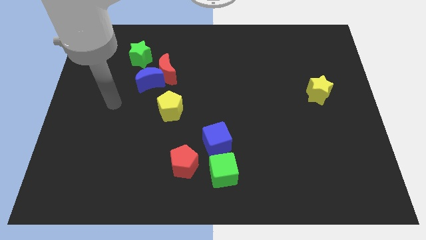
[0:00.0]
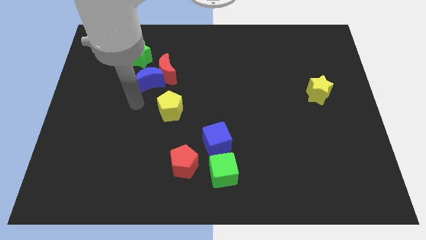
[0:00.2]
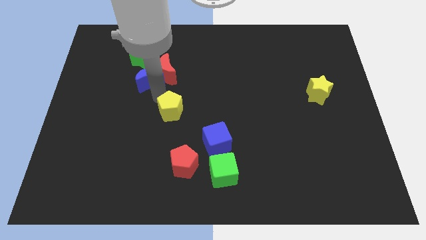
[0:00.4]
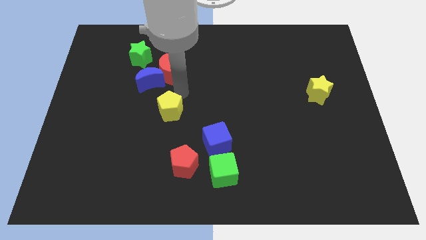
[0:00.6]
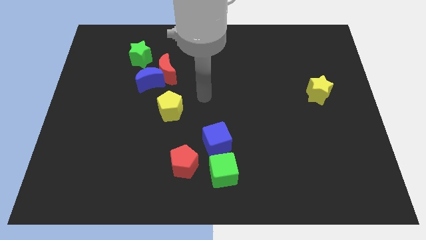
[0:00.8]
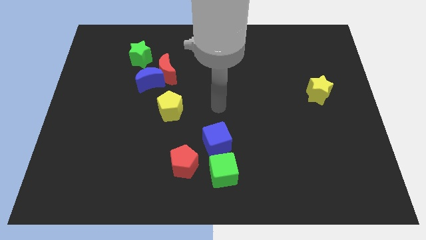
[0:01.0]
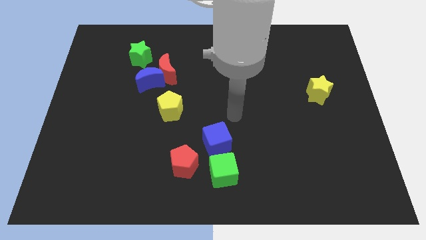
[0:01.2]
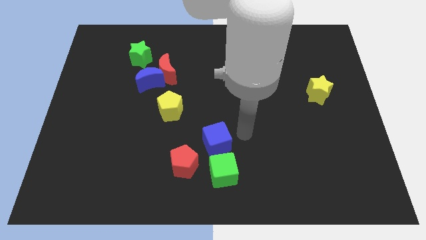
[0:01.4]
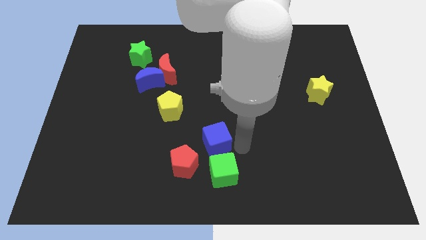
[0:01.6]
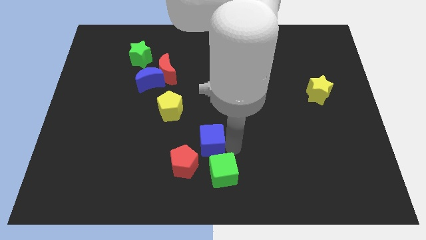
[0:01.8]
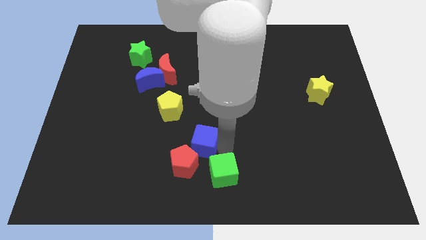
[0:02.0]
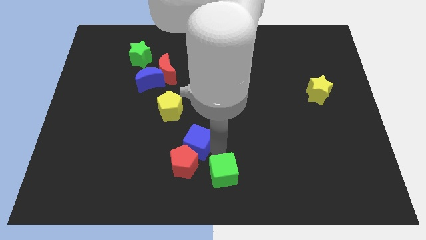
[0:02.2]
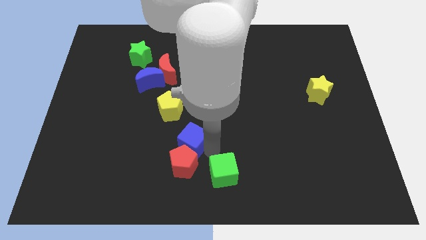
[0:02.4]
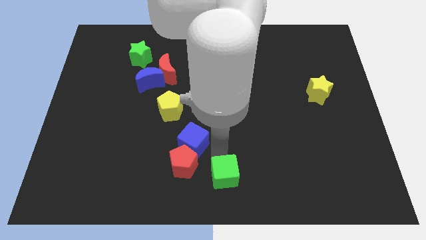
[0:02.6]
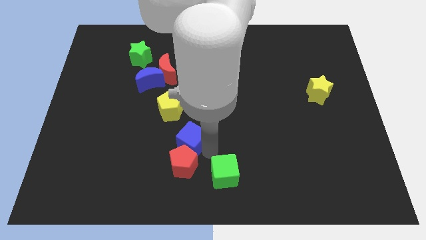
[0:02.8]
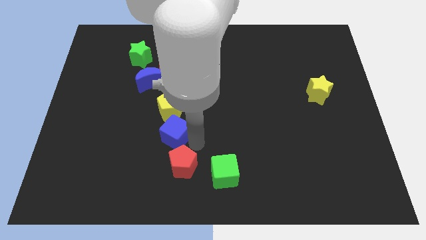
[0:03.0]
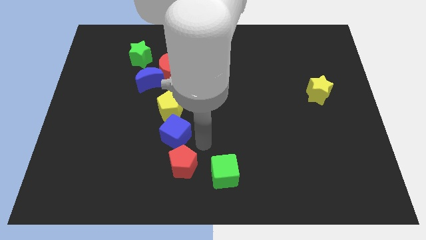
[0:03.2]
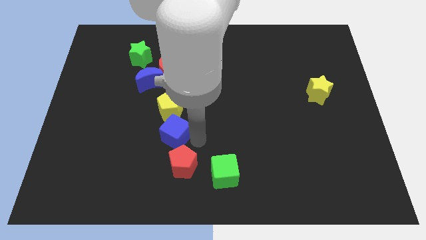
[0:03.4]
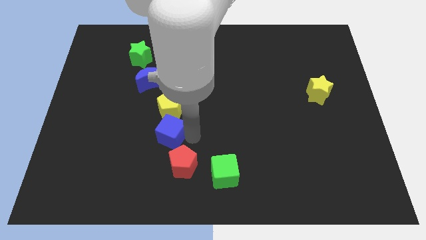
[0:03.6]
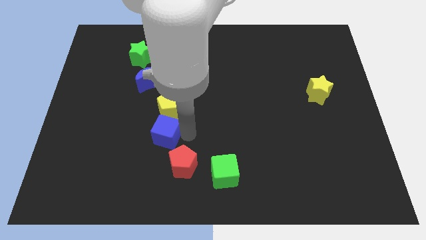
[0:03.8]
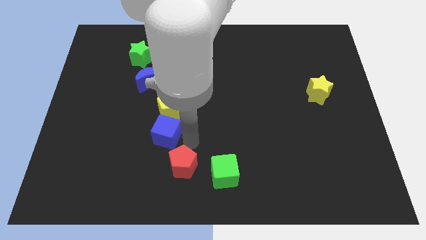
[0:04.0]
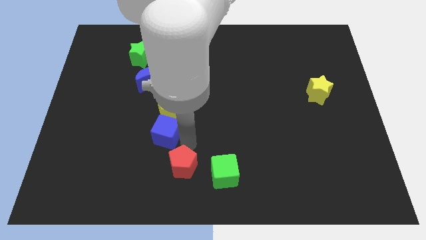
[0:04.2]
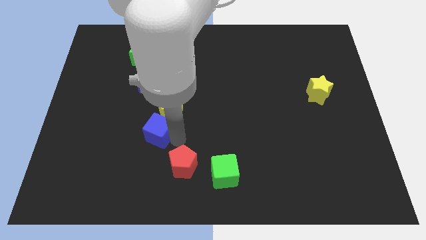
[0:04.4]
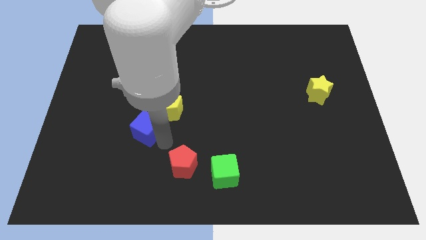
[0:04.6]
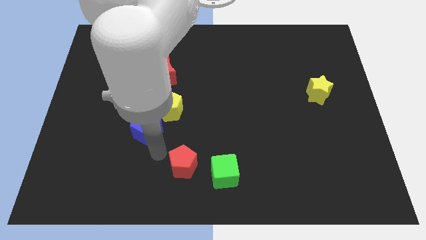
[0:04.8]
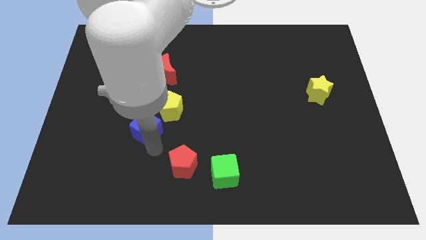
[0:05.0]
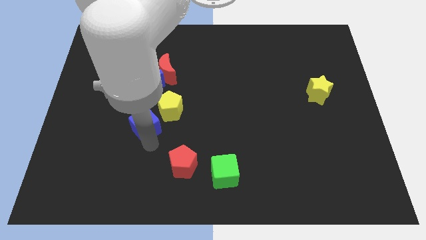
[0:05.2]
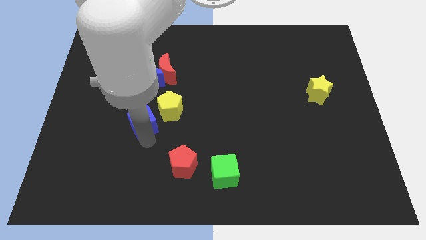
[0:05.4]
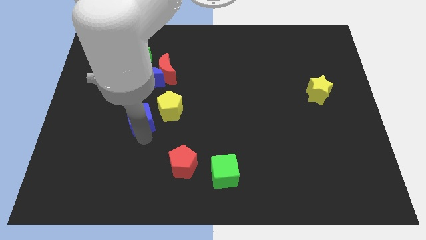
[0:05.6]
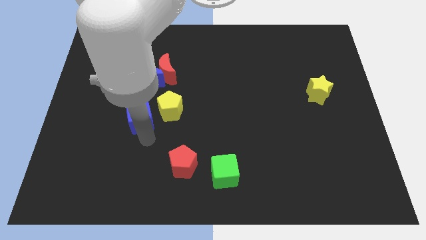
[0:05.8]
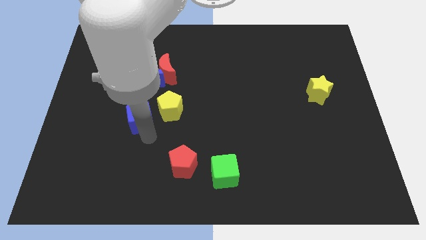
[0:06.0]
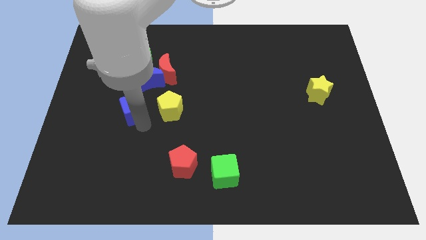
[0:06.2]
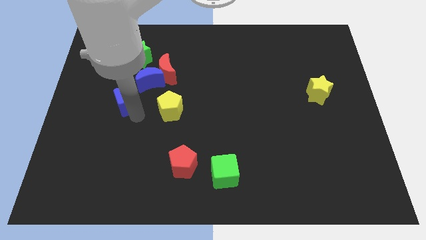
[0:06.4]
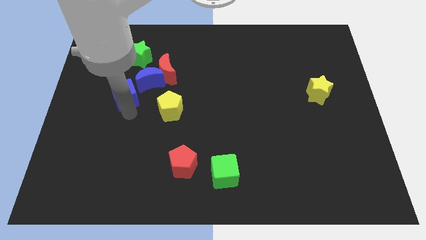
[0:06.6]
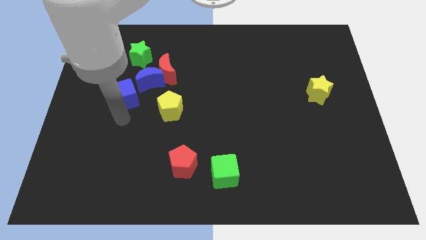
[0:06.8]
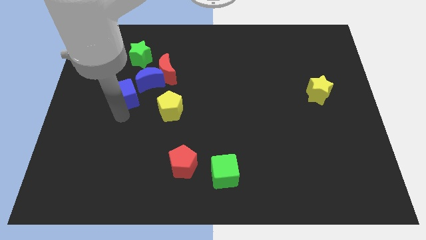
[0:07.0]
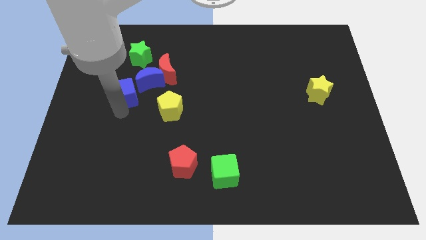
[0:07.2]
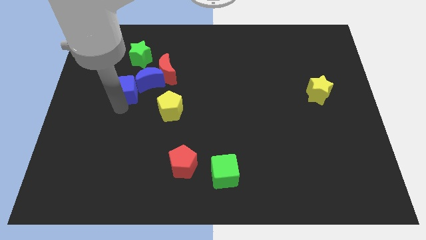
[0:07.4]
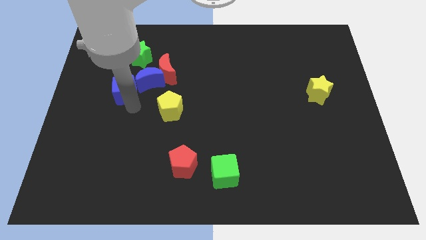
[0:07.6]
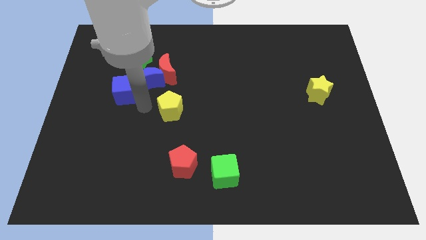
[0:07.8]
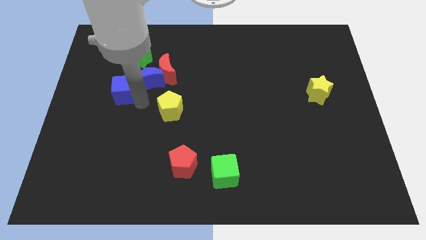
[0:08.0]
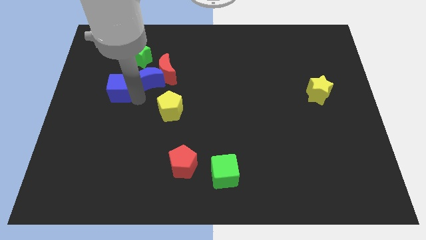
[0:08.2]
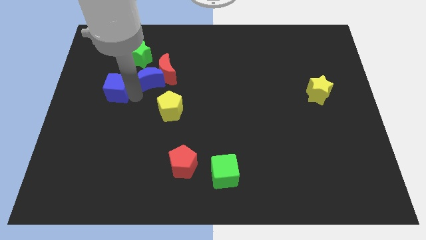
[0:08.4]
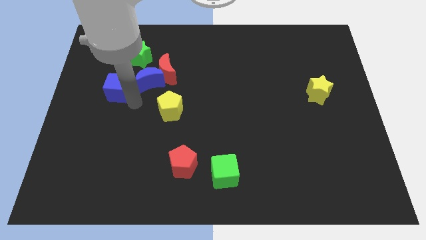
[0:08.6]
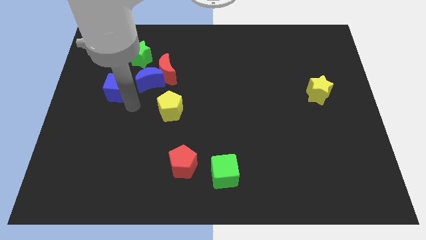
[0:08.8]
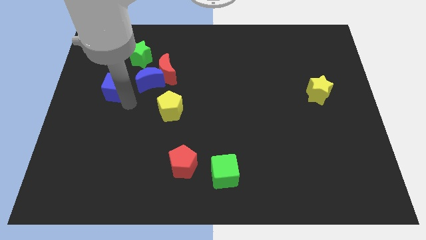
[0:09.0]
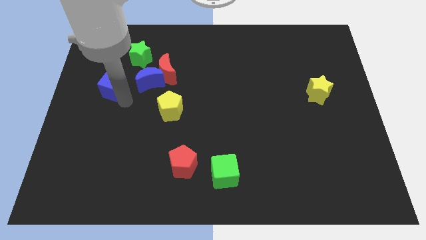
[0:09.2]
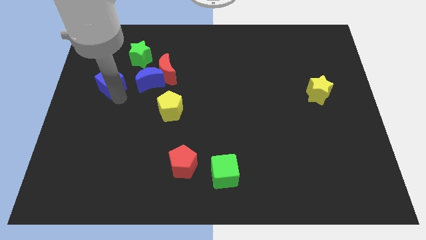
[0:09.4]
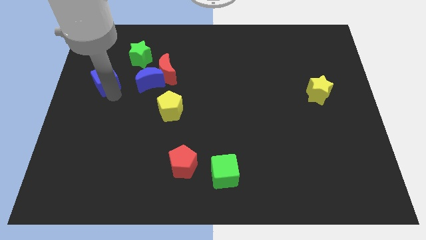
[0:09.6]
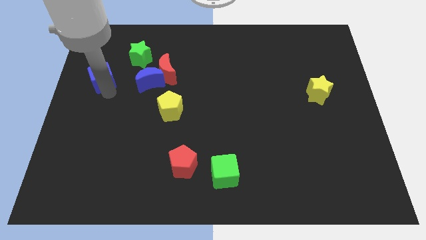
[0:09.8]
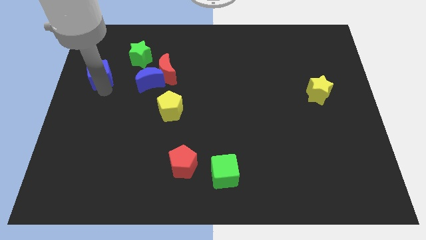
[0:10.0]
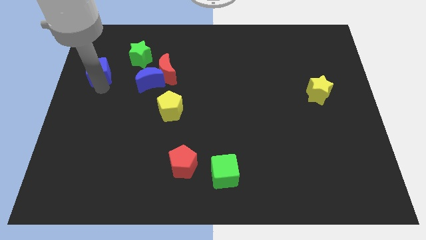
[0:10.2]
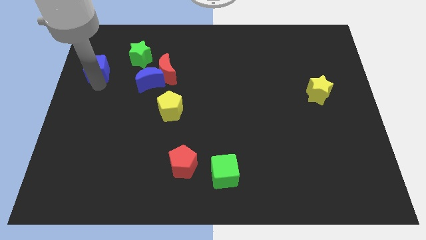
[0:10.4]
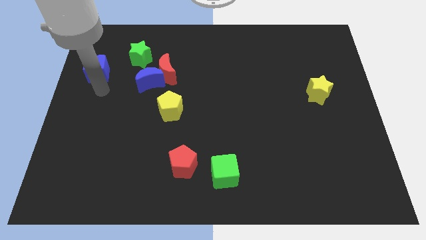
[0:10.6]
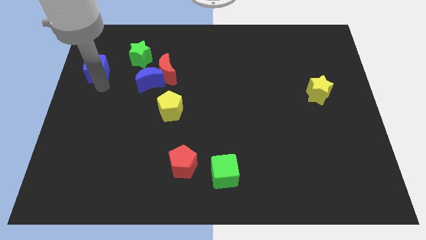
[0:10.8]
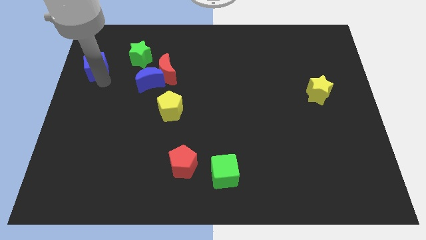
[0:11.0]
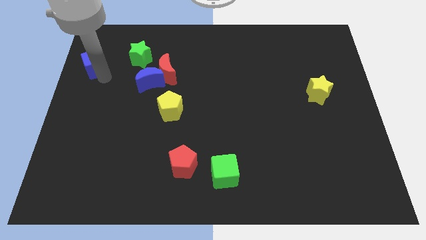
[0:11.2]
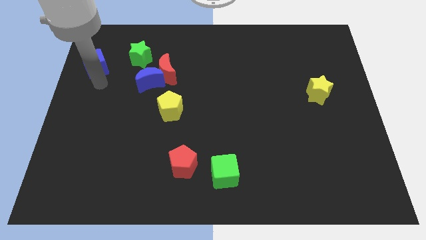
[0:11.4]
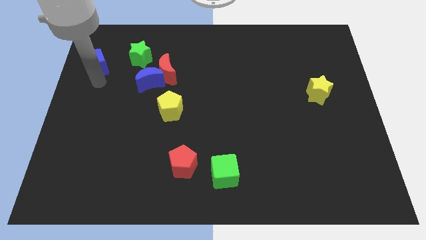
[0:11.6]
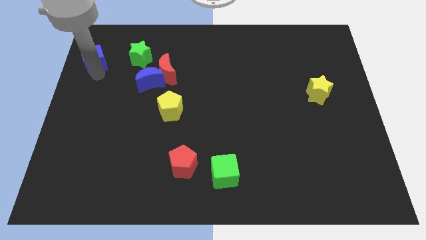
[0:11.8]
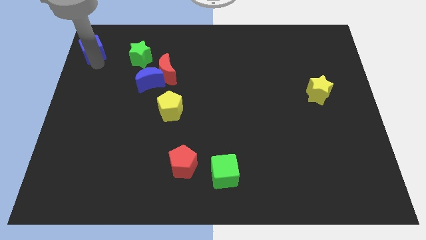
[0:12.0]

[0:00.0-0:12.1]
push the blue cube to the top left

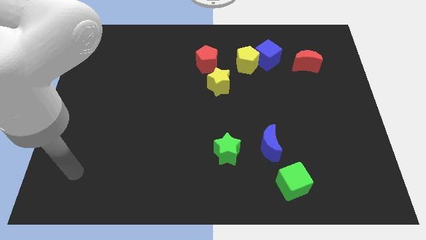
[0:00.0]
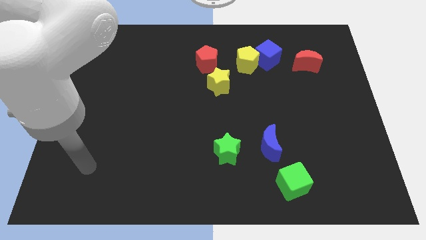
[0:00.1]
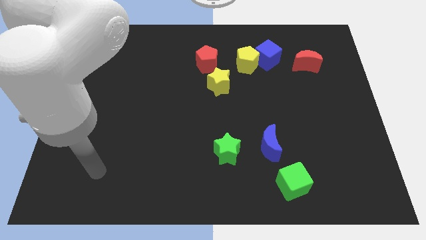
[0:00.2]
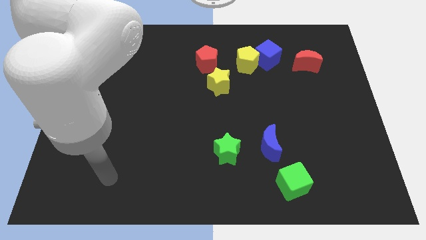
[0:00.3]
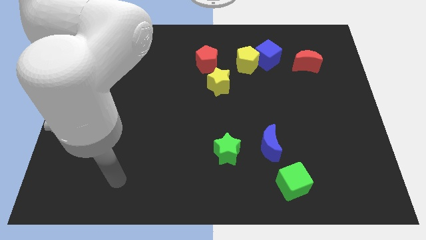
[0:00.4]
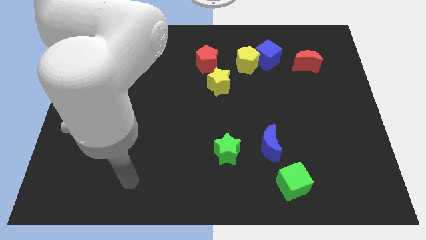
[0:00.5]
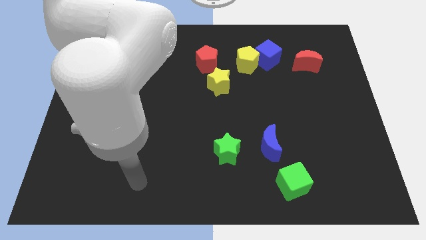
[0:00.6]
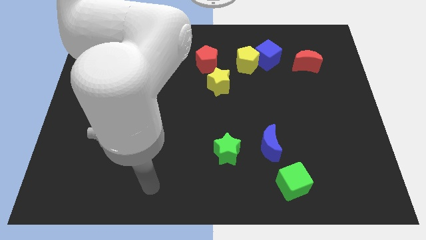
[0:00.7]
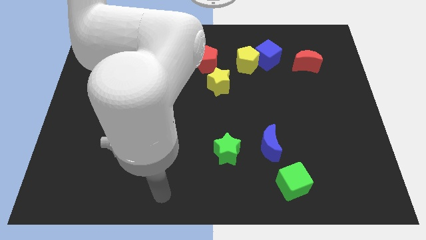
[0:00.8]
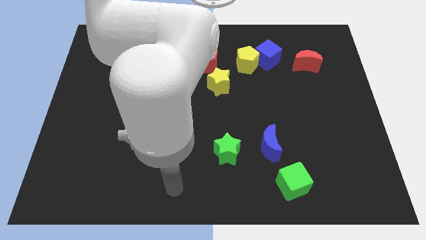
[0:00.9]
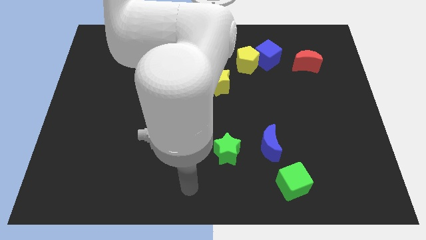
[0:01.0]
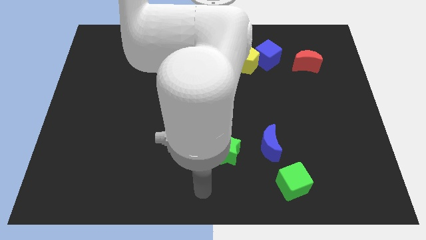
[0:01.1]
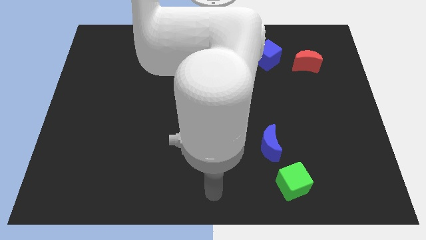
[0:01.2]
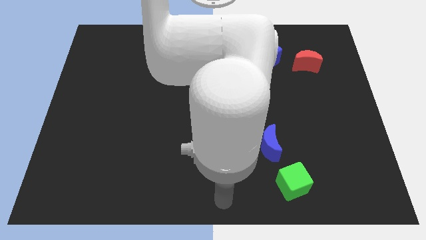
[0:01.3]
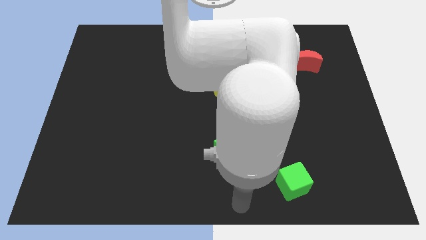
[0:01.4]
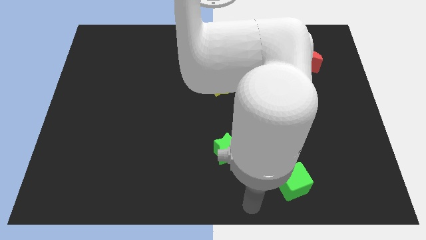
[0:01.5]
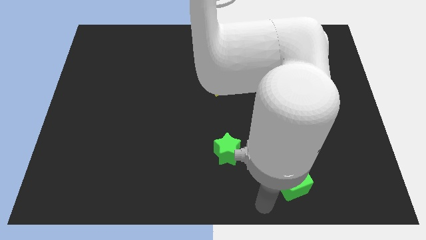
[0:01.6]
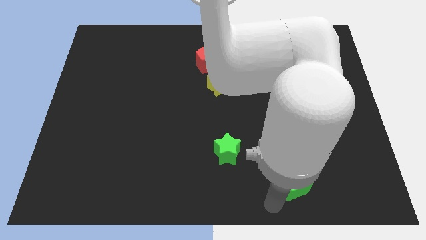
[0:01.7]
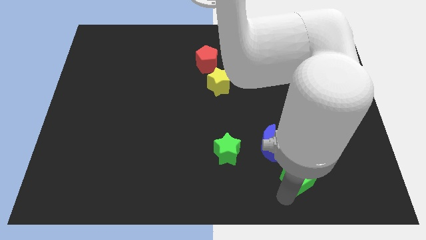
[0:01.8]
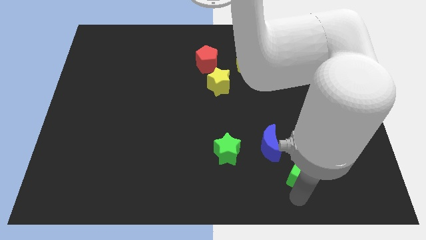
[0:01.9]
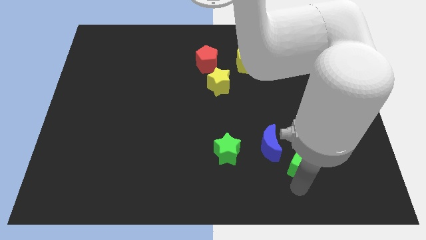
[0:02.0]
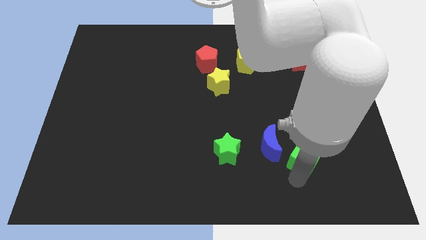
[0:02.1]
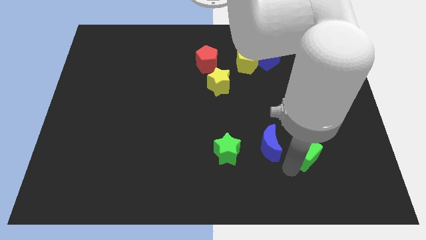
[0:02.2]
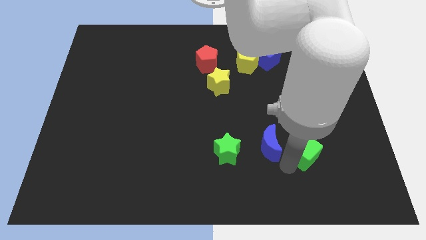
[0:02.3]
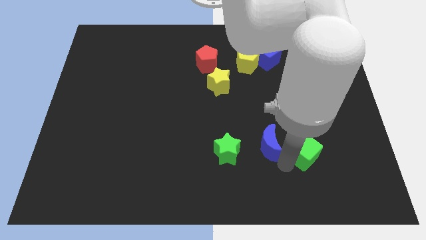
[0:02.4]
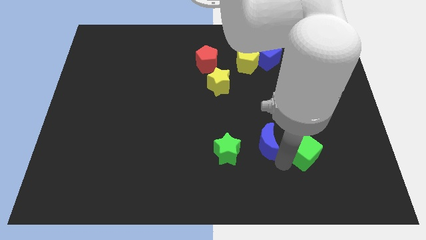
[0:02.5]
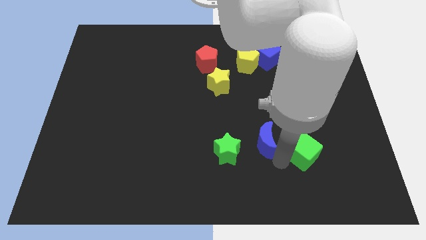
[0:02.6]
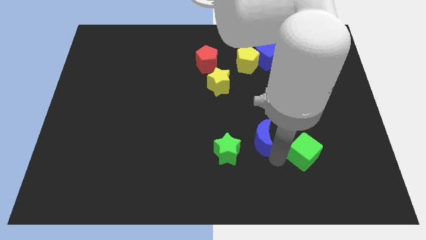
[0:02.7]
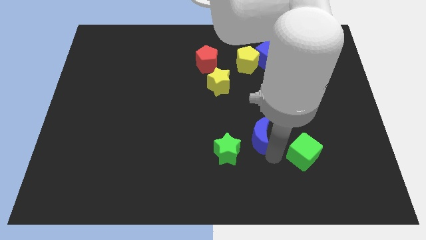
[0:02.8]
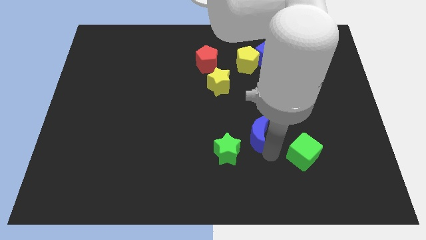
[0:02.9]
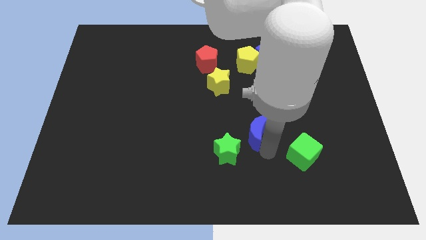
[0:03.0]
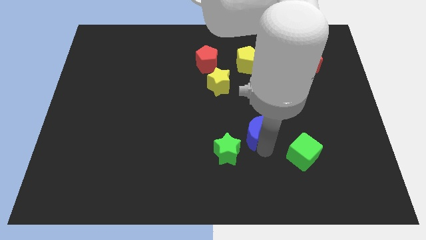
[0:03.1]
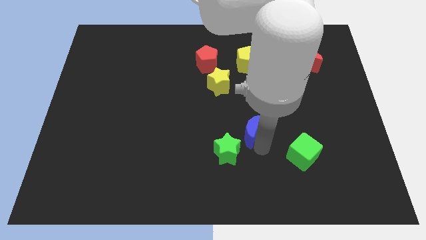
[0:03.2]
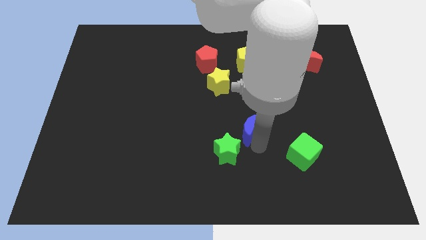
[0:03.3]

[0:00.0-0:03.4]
put the blue moon to the middle
